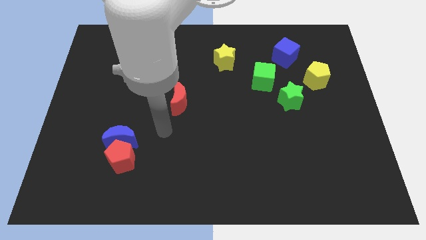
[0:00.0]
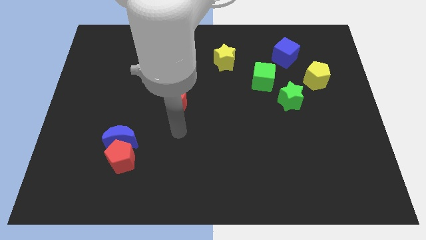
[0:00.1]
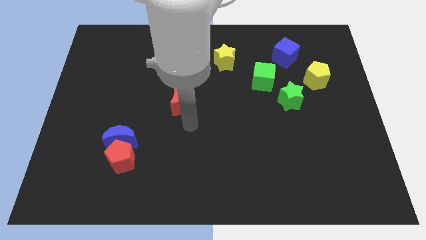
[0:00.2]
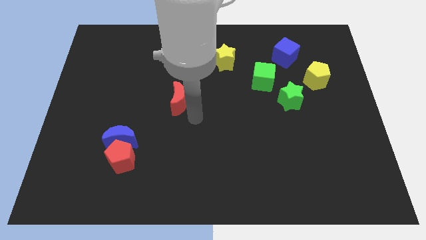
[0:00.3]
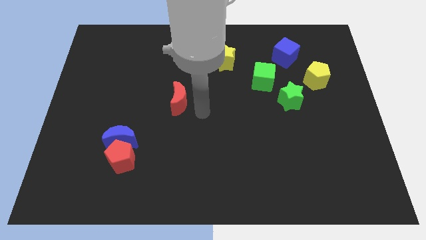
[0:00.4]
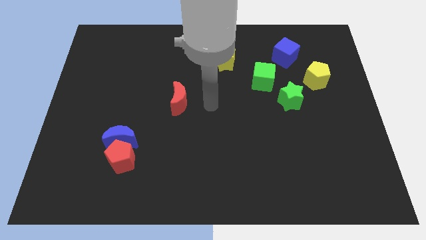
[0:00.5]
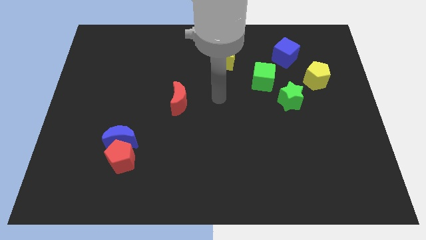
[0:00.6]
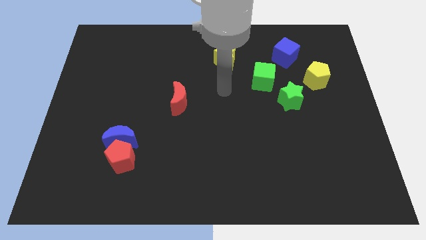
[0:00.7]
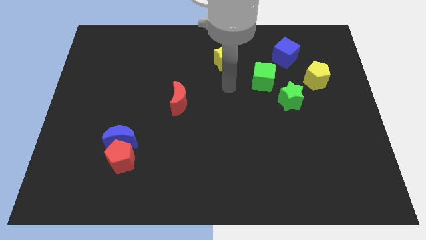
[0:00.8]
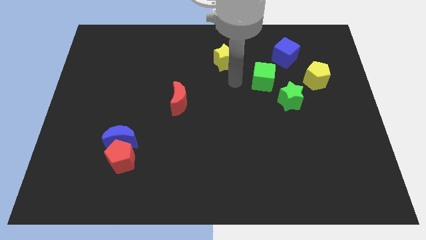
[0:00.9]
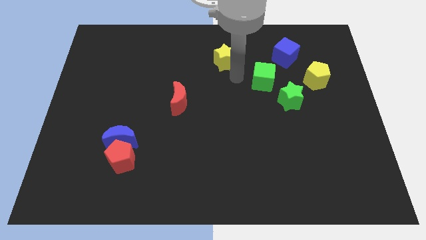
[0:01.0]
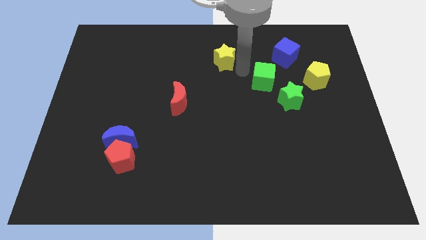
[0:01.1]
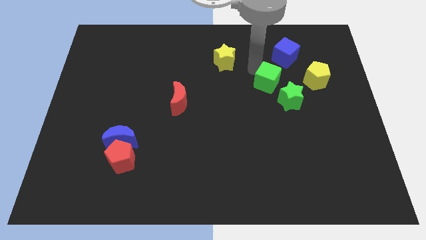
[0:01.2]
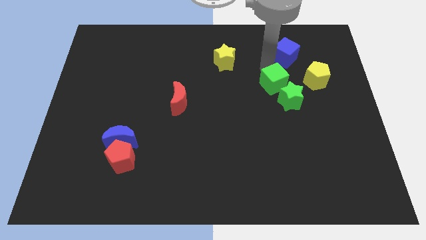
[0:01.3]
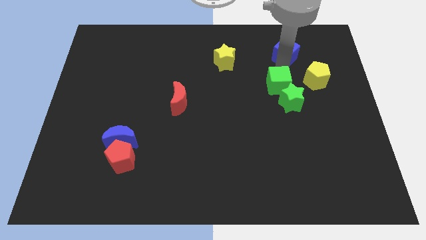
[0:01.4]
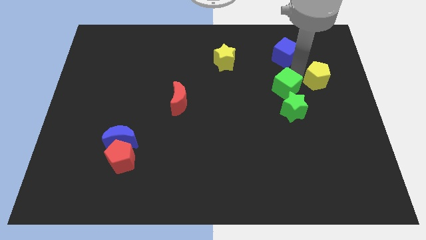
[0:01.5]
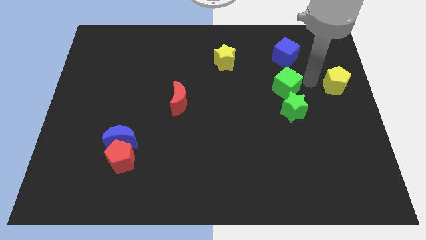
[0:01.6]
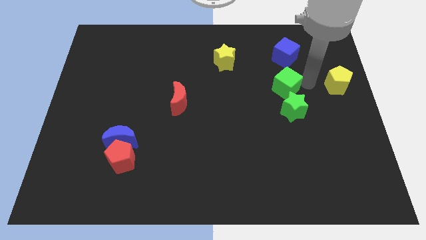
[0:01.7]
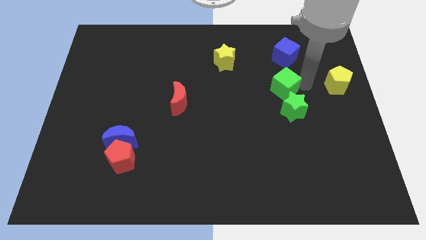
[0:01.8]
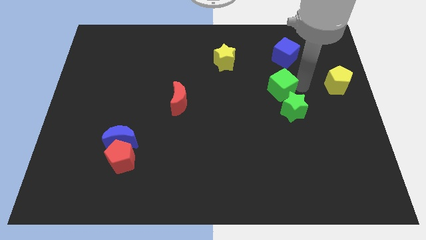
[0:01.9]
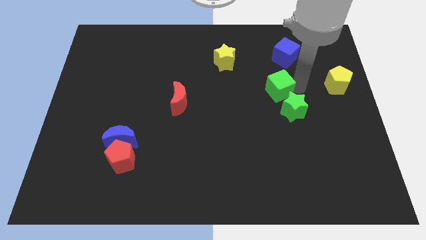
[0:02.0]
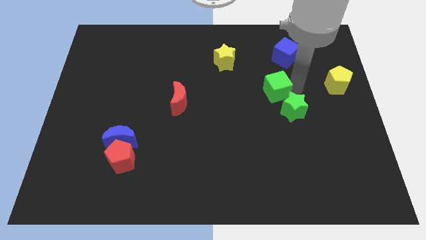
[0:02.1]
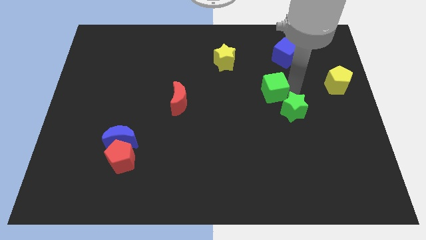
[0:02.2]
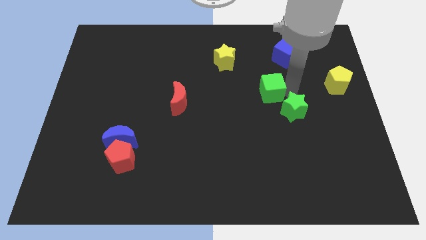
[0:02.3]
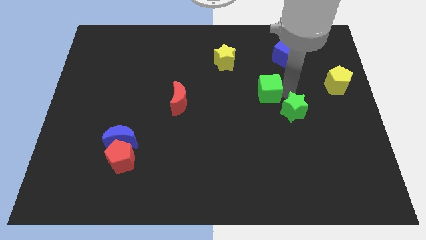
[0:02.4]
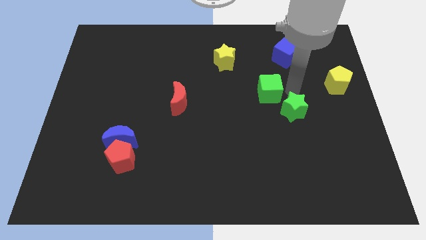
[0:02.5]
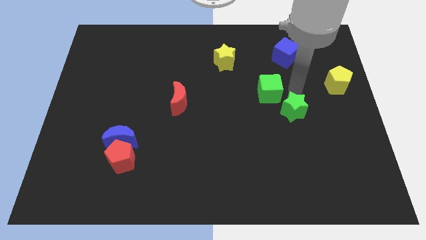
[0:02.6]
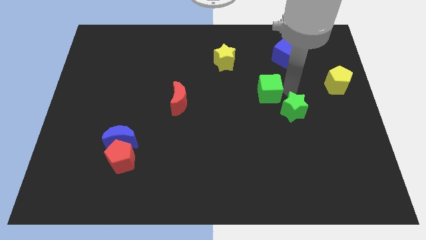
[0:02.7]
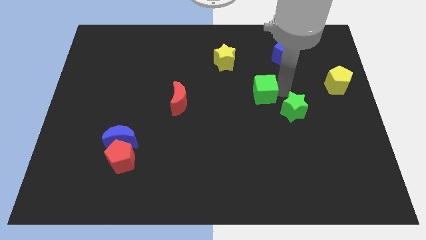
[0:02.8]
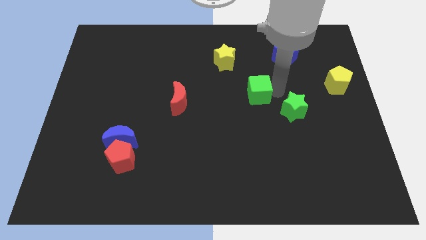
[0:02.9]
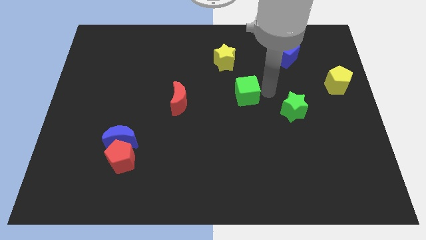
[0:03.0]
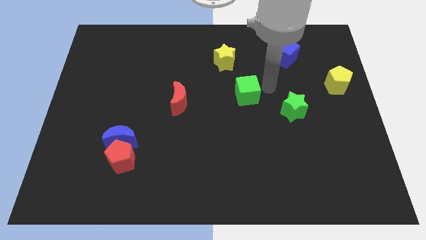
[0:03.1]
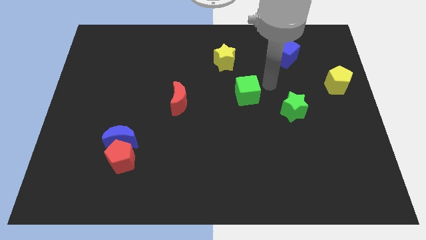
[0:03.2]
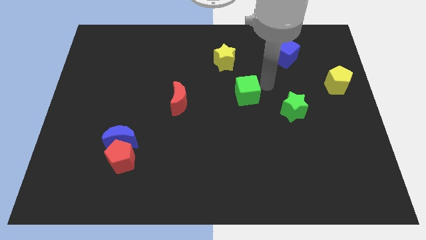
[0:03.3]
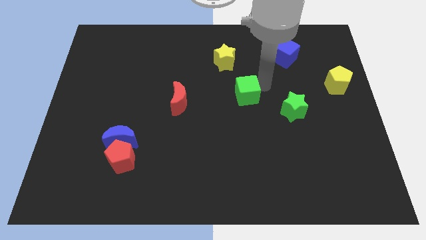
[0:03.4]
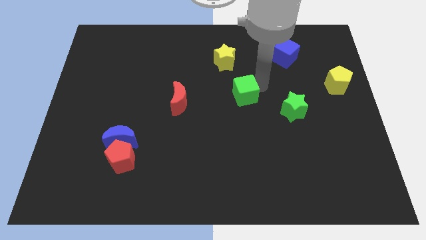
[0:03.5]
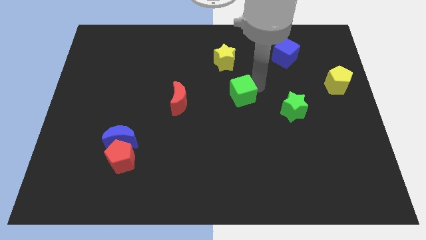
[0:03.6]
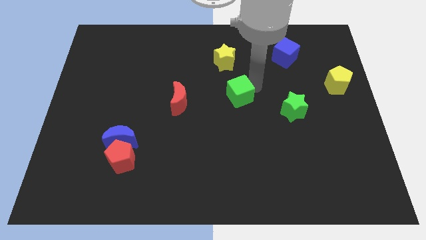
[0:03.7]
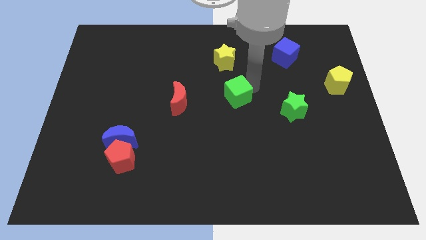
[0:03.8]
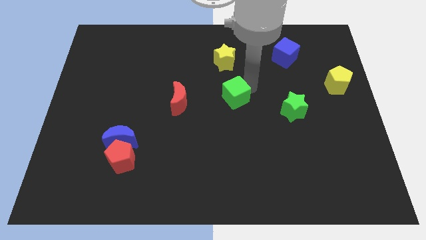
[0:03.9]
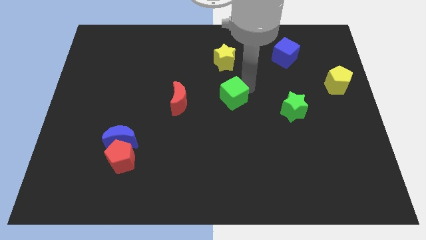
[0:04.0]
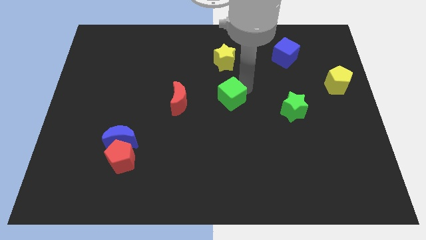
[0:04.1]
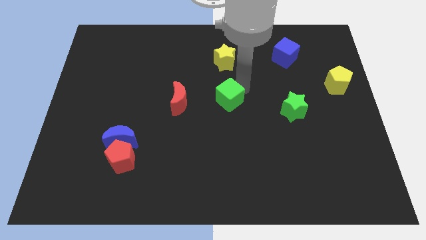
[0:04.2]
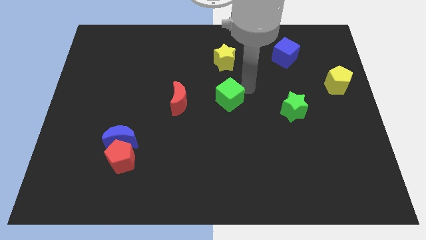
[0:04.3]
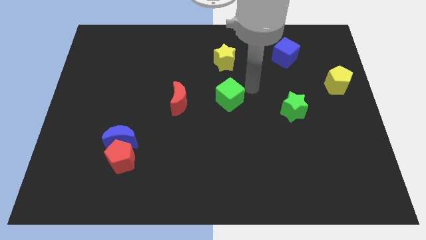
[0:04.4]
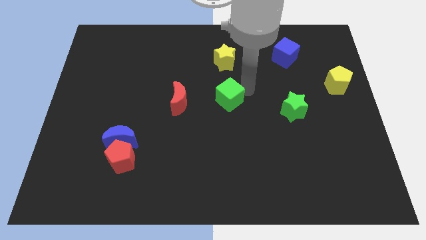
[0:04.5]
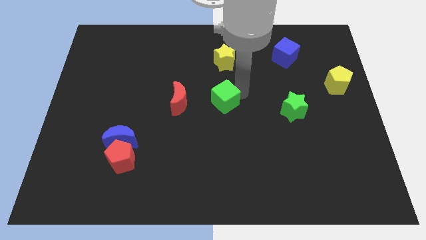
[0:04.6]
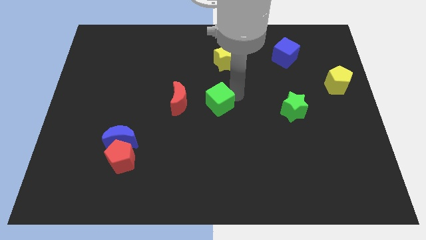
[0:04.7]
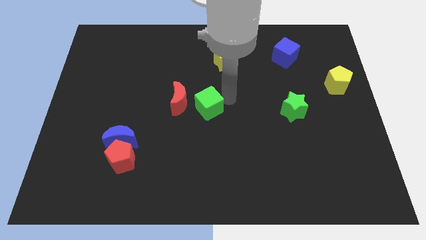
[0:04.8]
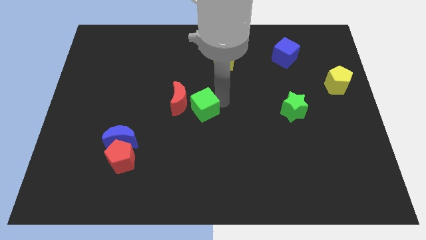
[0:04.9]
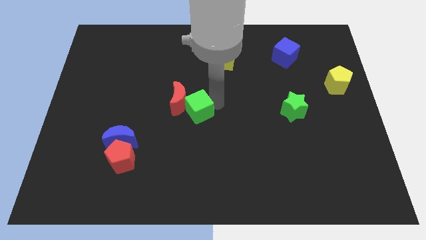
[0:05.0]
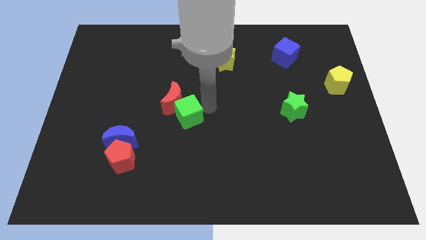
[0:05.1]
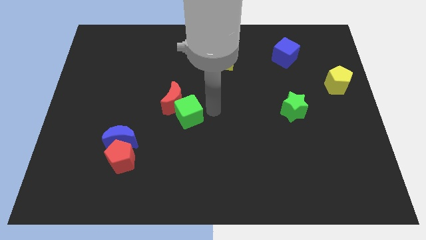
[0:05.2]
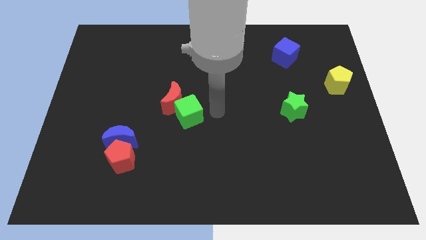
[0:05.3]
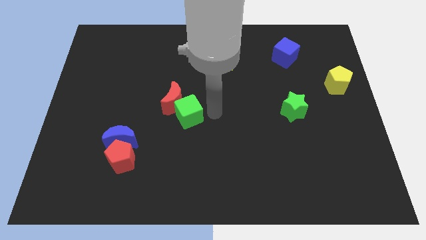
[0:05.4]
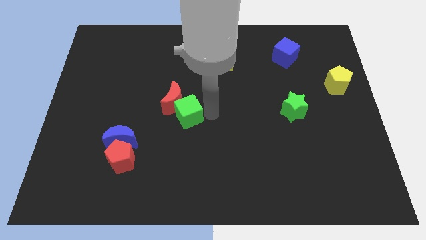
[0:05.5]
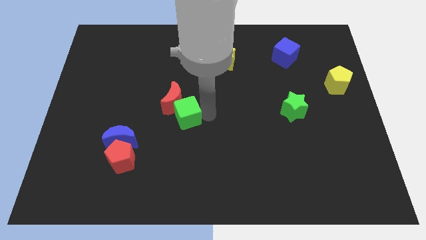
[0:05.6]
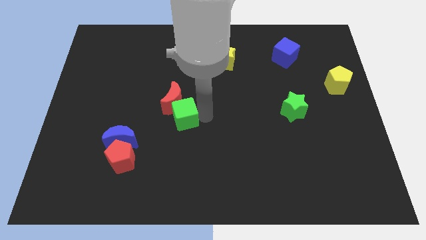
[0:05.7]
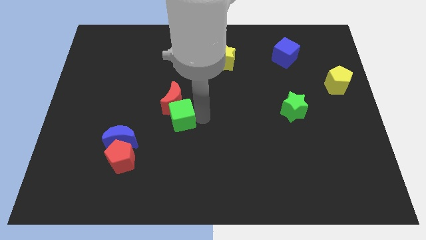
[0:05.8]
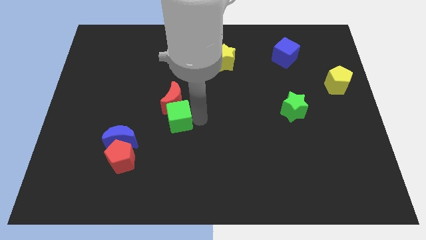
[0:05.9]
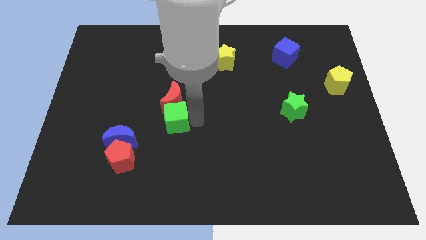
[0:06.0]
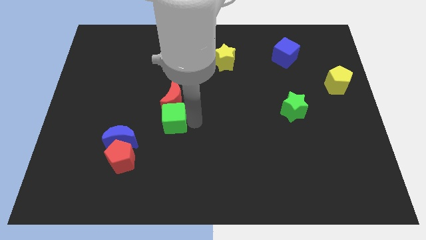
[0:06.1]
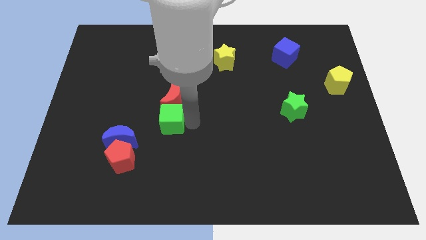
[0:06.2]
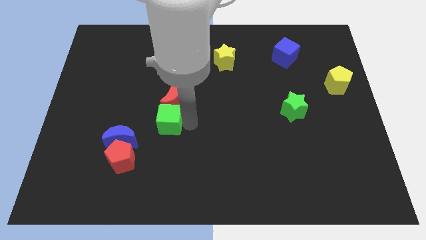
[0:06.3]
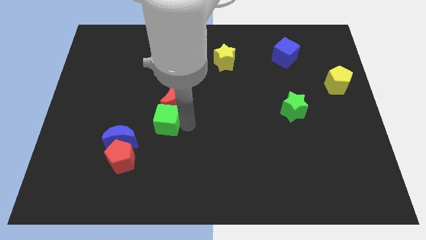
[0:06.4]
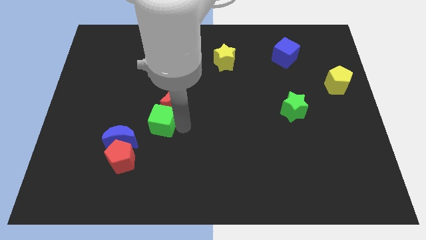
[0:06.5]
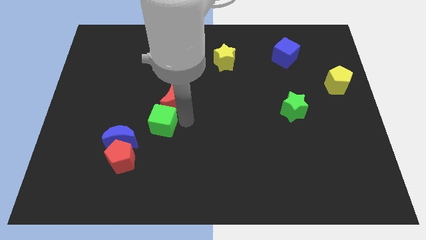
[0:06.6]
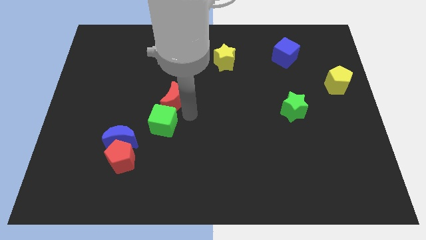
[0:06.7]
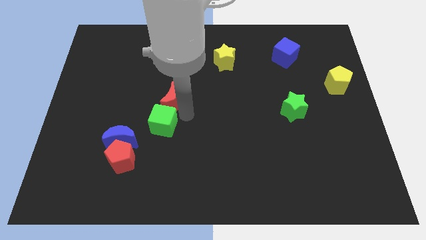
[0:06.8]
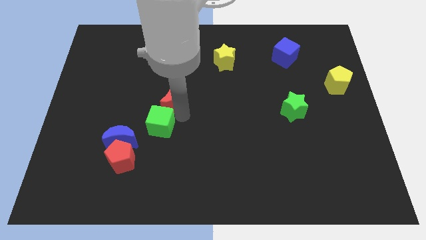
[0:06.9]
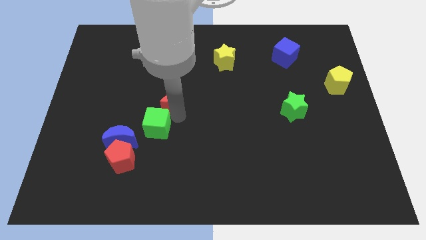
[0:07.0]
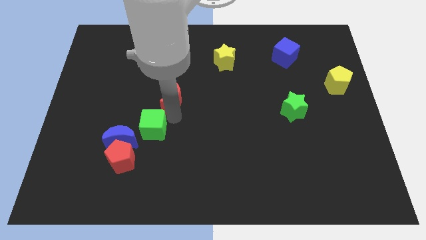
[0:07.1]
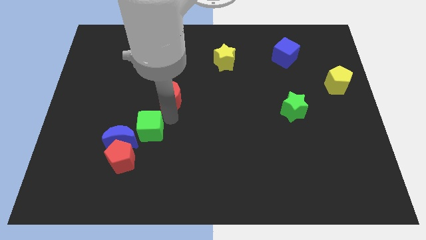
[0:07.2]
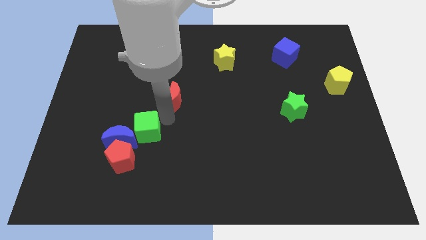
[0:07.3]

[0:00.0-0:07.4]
put the green cube close to the blue moon
